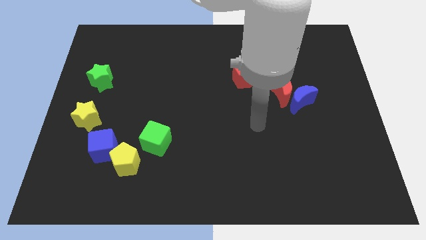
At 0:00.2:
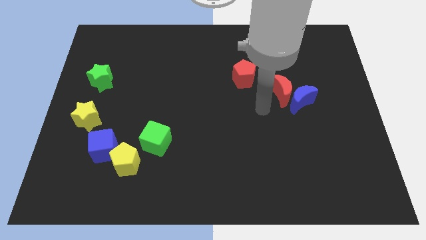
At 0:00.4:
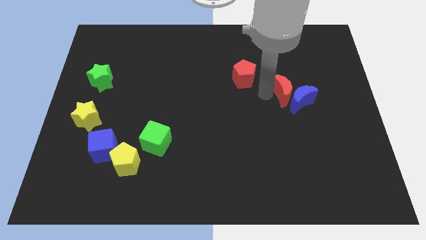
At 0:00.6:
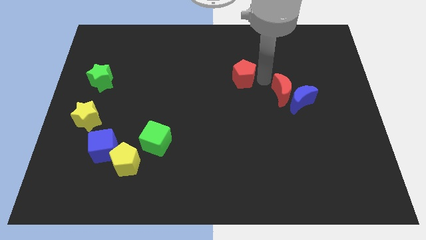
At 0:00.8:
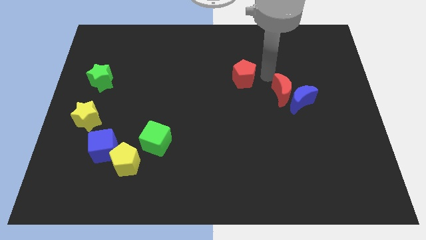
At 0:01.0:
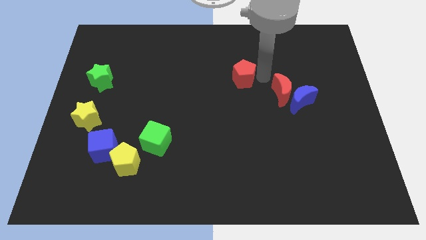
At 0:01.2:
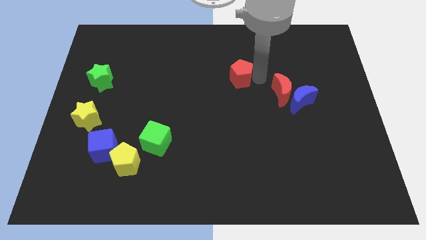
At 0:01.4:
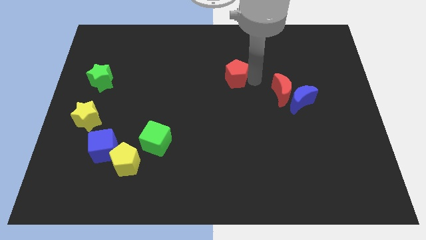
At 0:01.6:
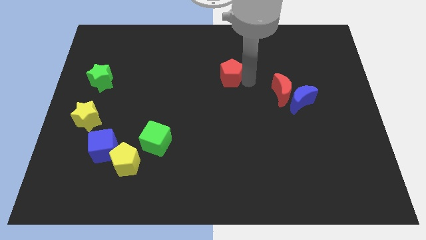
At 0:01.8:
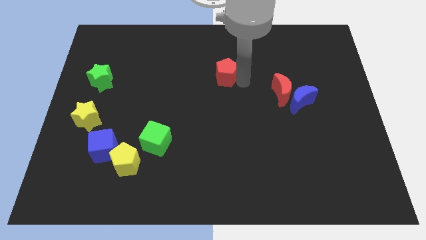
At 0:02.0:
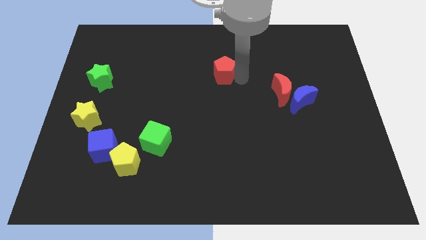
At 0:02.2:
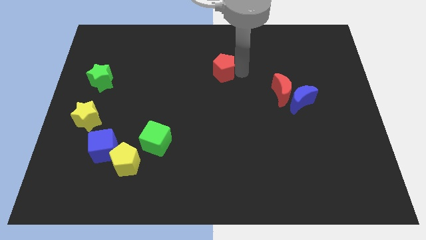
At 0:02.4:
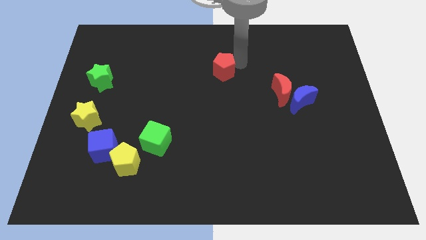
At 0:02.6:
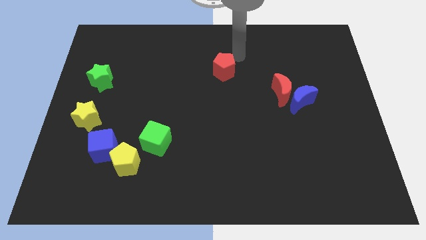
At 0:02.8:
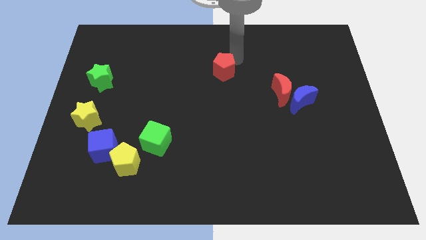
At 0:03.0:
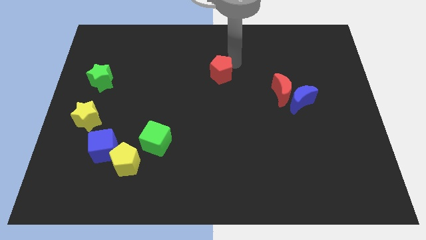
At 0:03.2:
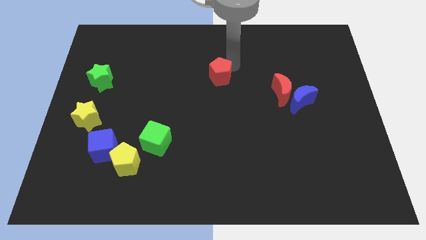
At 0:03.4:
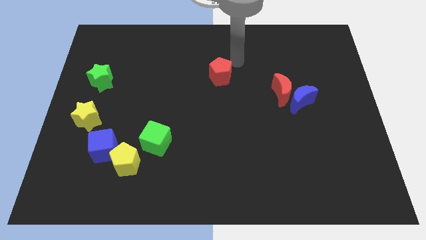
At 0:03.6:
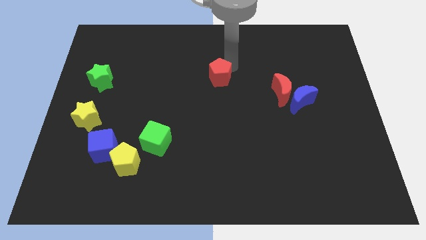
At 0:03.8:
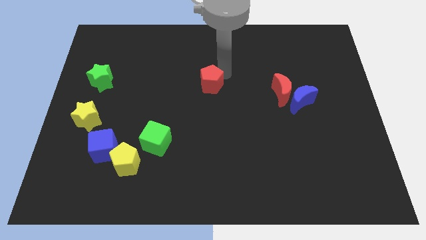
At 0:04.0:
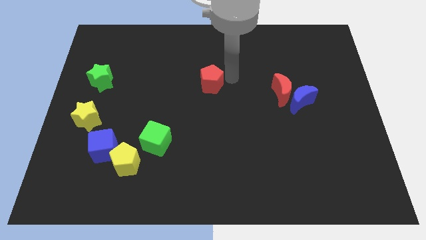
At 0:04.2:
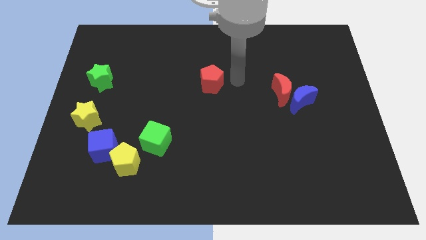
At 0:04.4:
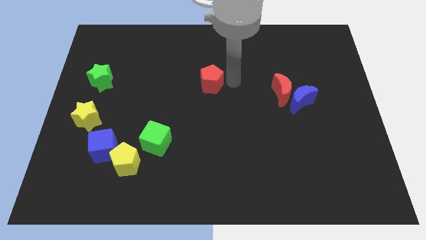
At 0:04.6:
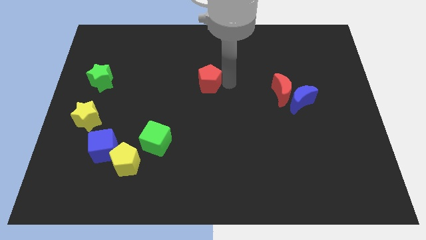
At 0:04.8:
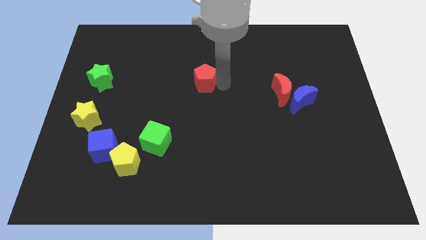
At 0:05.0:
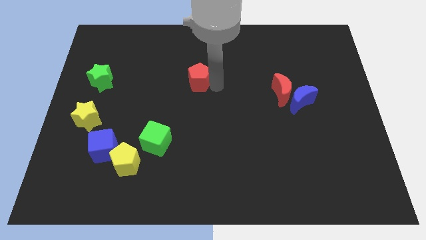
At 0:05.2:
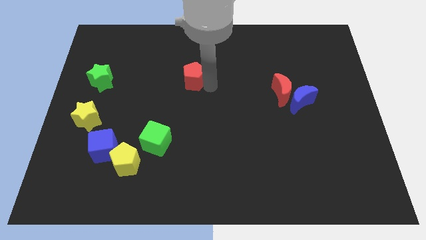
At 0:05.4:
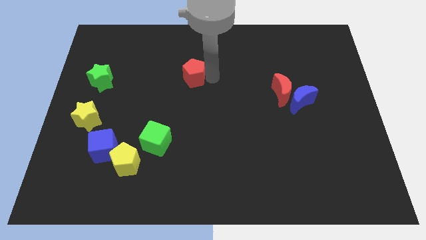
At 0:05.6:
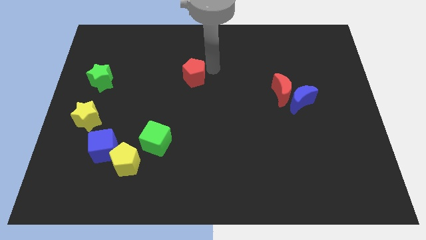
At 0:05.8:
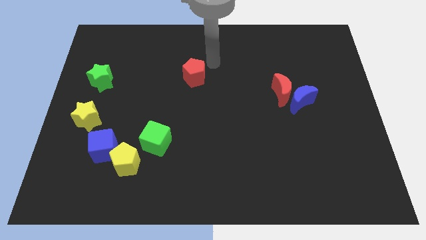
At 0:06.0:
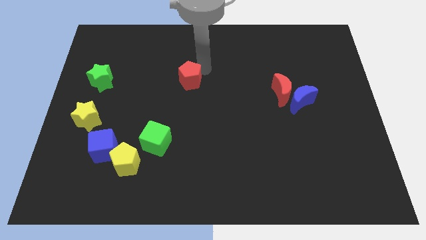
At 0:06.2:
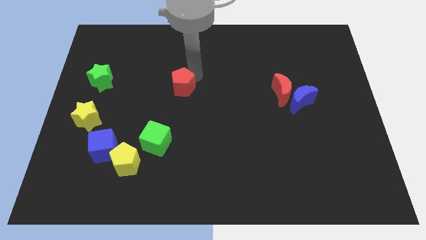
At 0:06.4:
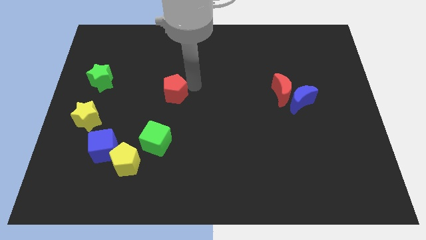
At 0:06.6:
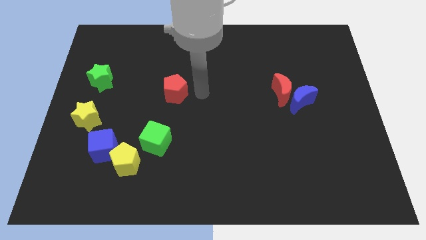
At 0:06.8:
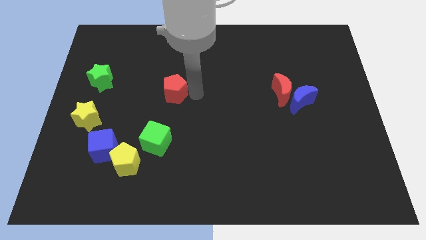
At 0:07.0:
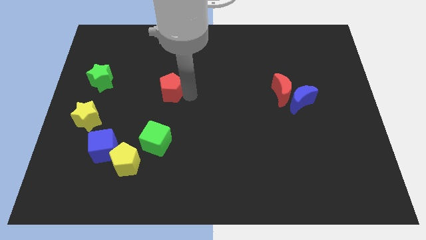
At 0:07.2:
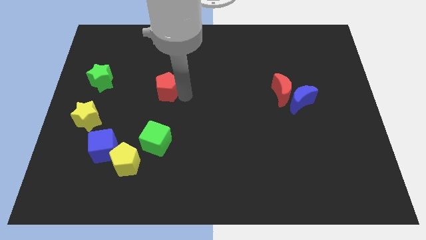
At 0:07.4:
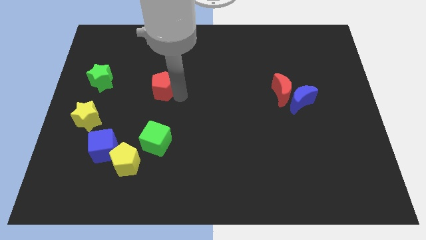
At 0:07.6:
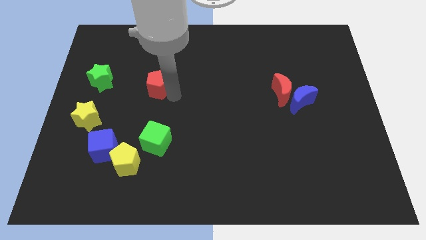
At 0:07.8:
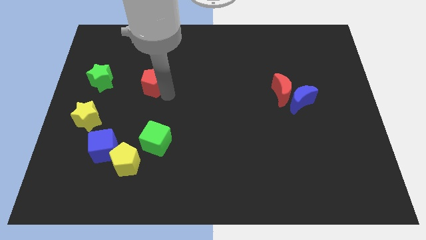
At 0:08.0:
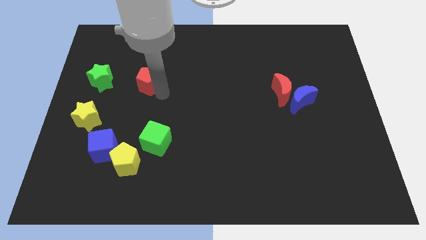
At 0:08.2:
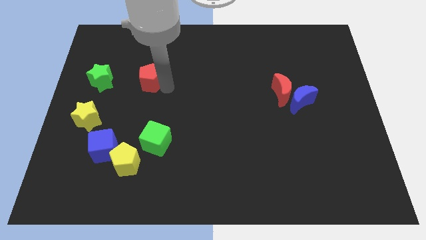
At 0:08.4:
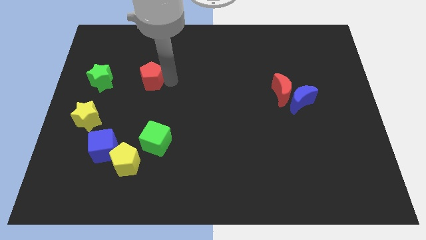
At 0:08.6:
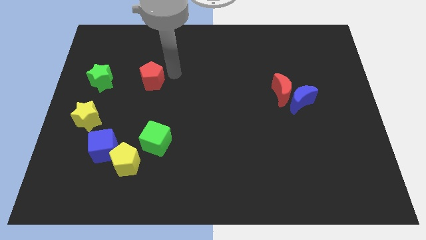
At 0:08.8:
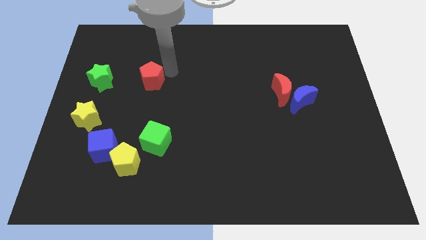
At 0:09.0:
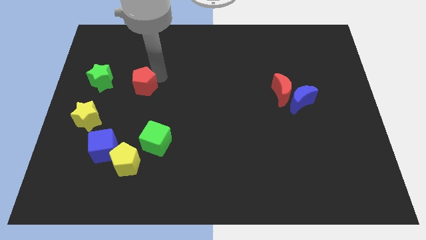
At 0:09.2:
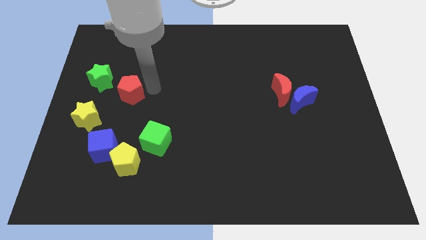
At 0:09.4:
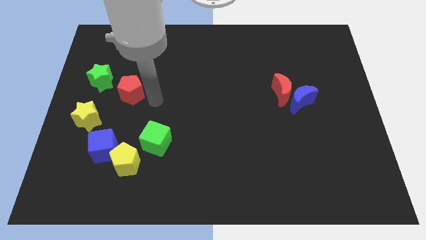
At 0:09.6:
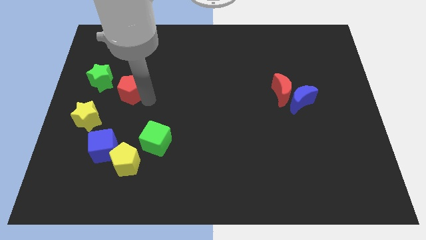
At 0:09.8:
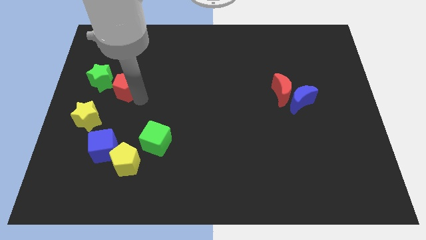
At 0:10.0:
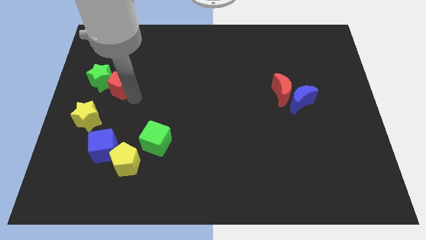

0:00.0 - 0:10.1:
put the red pentagon next to the green star

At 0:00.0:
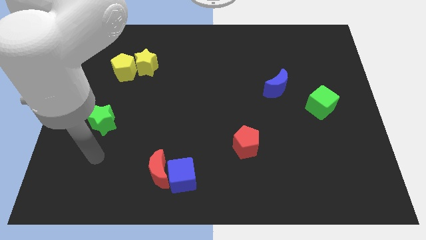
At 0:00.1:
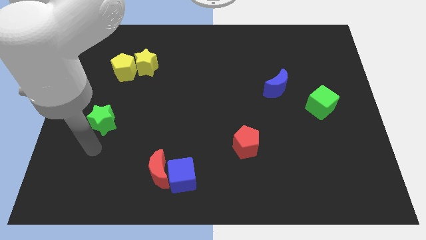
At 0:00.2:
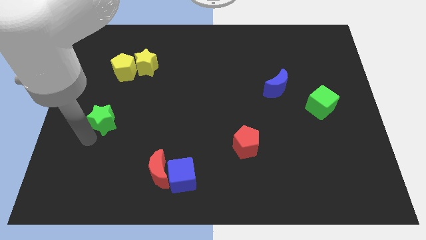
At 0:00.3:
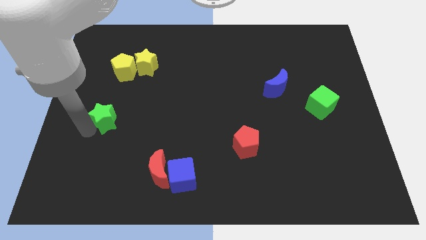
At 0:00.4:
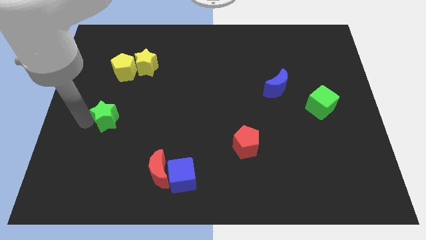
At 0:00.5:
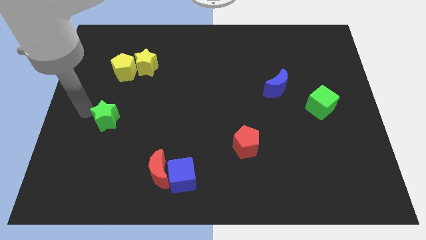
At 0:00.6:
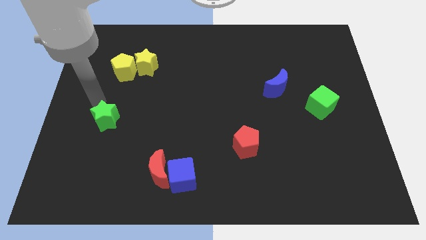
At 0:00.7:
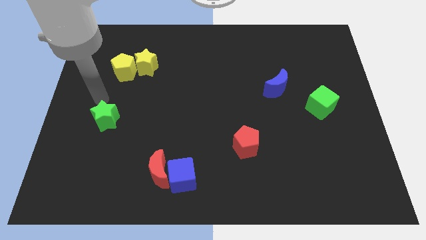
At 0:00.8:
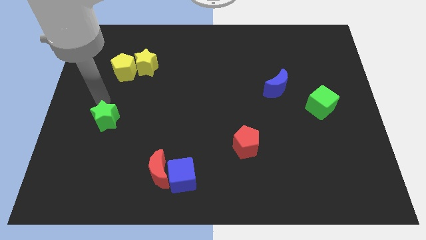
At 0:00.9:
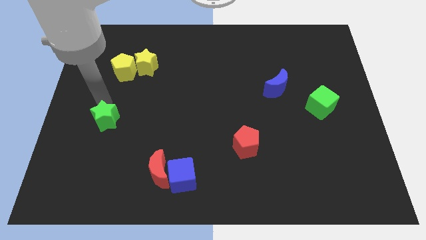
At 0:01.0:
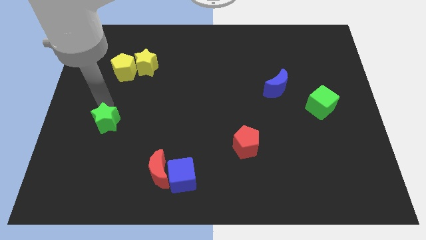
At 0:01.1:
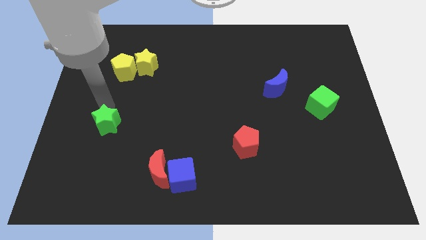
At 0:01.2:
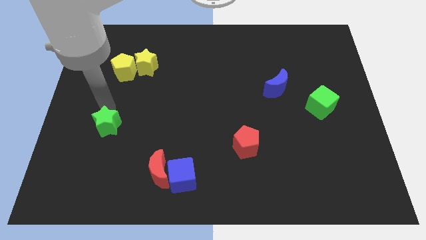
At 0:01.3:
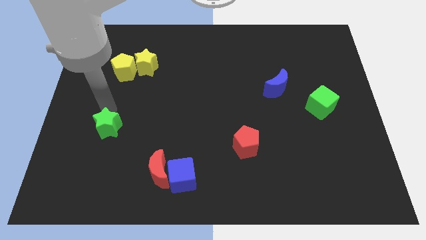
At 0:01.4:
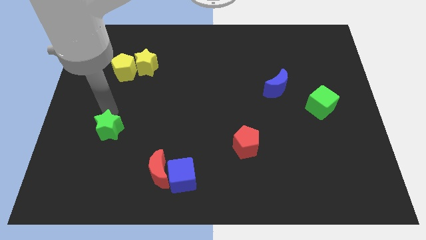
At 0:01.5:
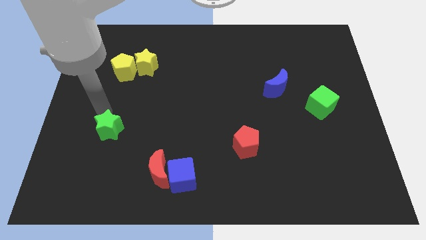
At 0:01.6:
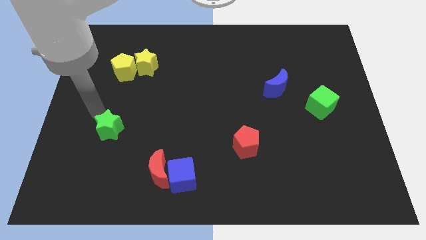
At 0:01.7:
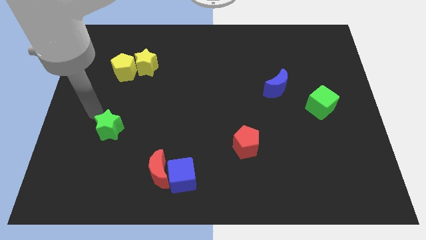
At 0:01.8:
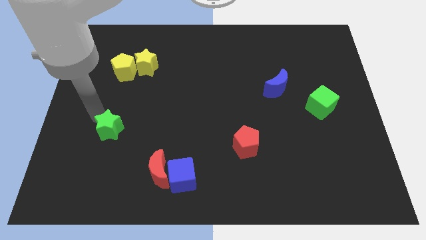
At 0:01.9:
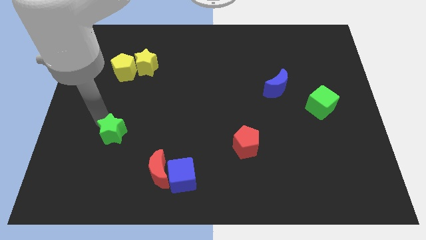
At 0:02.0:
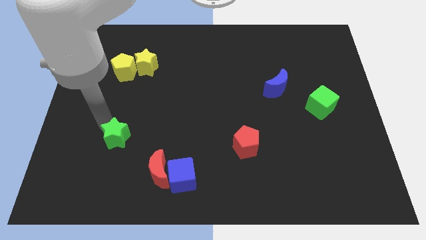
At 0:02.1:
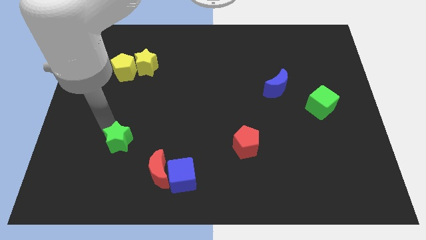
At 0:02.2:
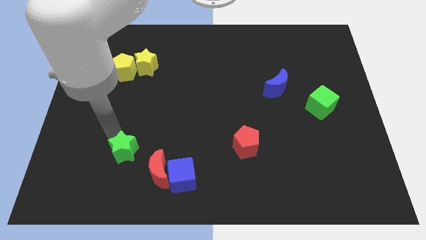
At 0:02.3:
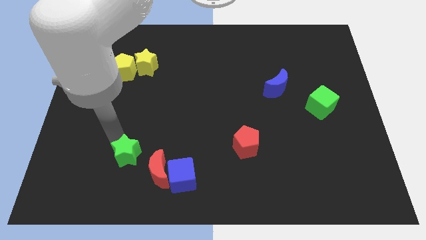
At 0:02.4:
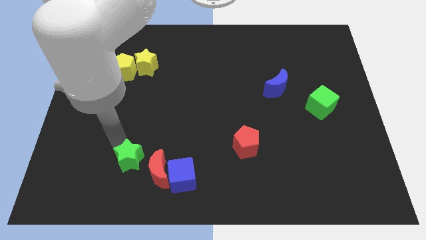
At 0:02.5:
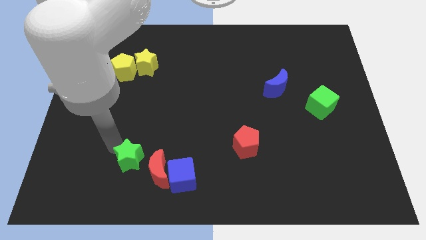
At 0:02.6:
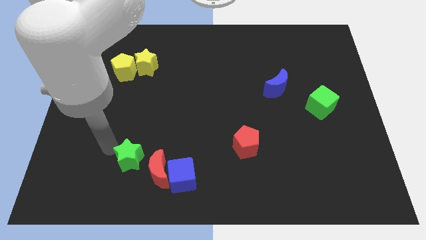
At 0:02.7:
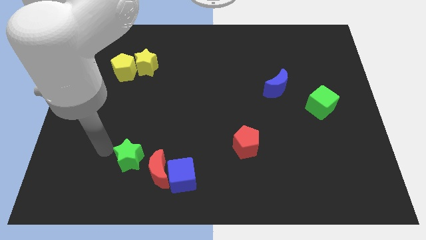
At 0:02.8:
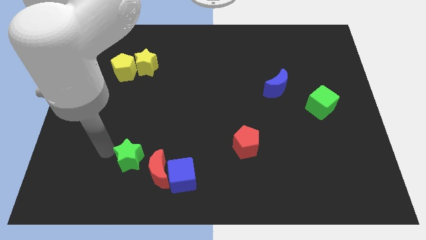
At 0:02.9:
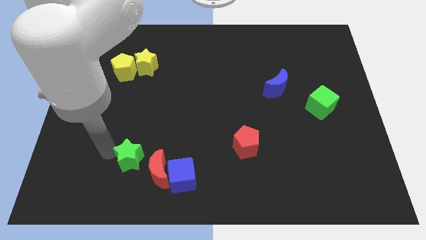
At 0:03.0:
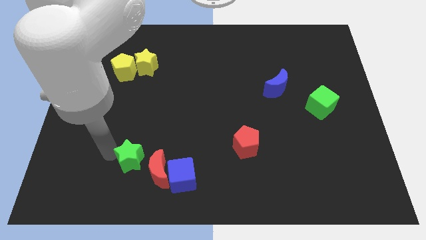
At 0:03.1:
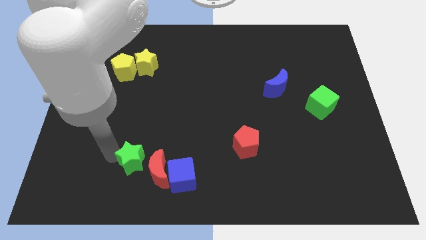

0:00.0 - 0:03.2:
move the green star next to the red moon
